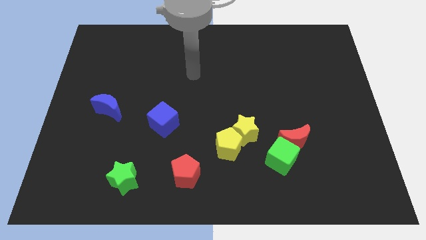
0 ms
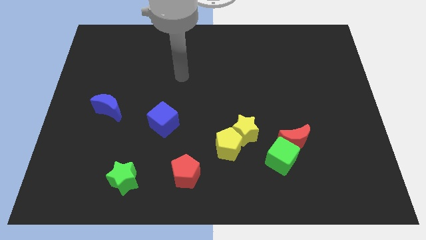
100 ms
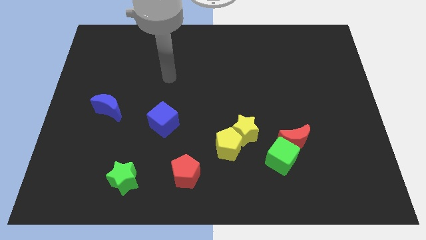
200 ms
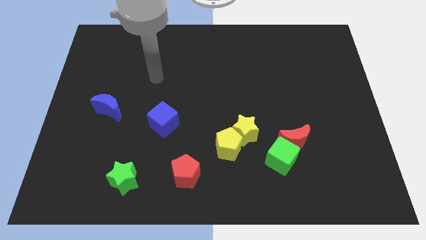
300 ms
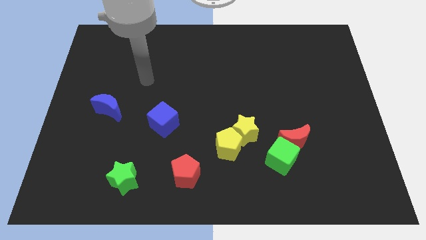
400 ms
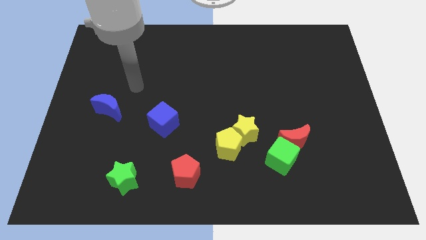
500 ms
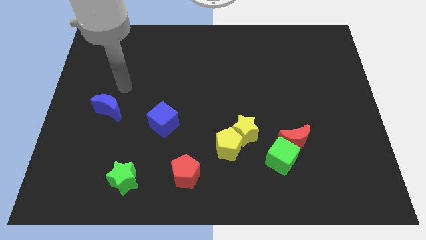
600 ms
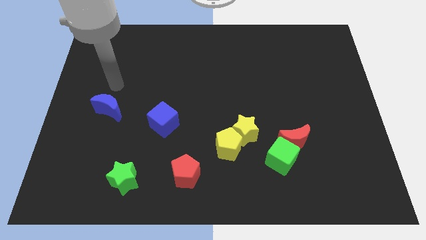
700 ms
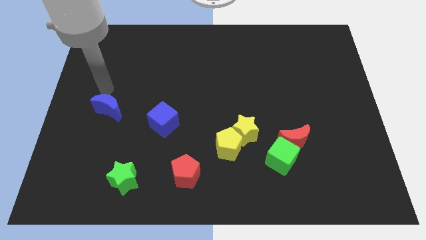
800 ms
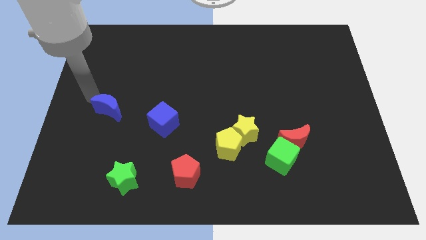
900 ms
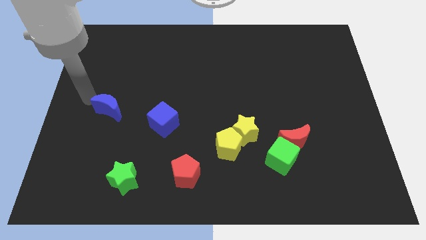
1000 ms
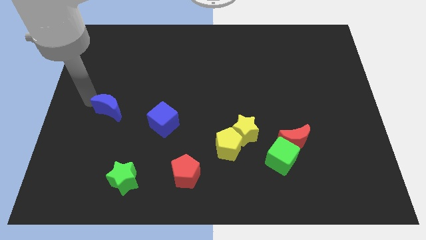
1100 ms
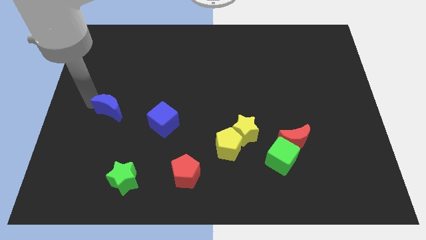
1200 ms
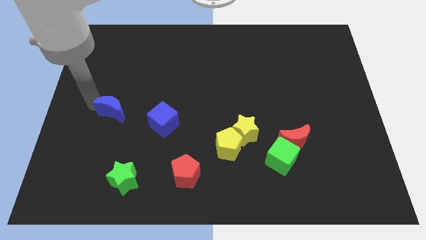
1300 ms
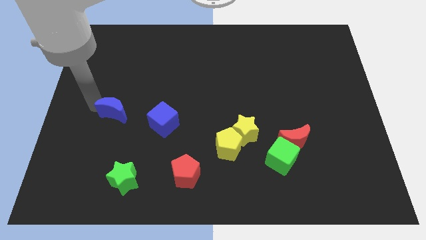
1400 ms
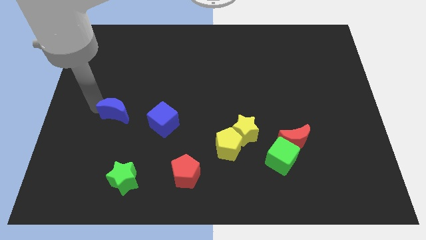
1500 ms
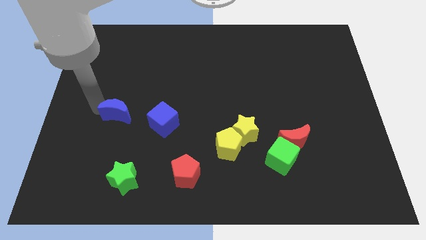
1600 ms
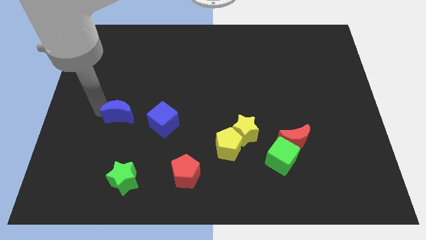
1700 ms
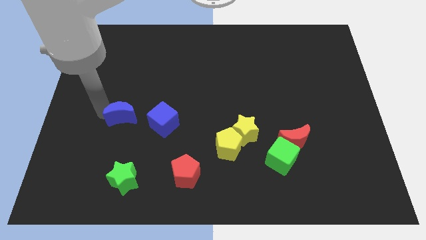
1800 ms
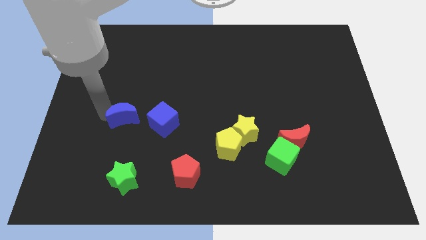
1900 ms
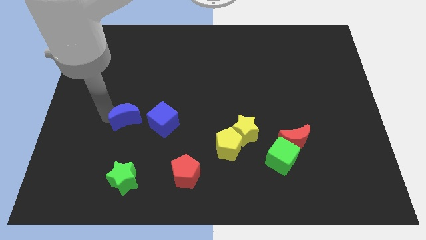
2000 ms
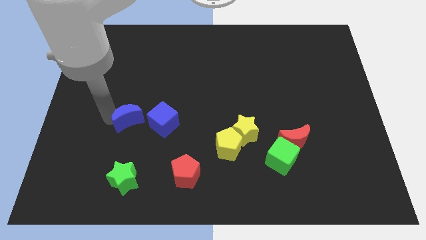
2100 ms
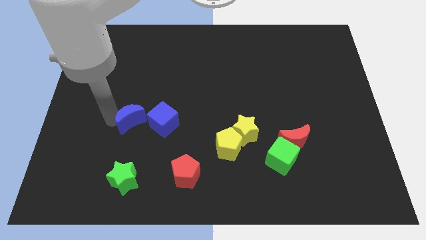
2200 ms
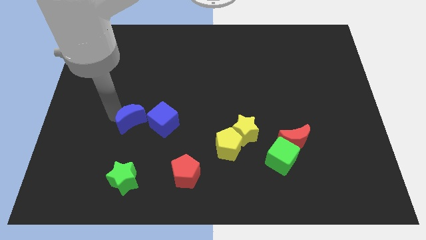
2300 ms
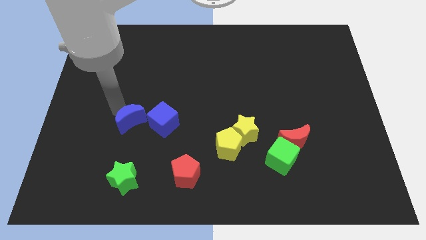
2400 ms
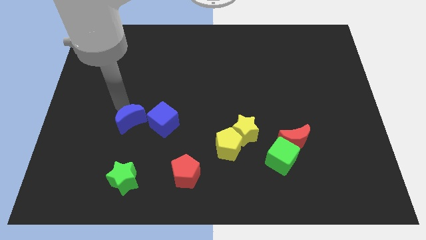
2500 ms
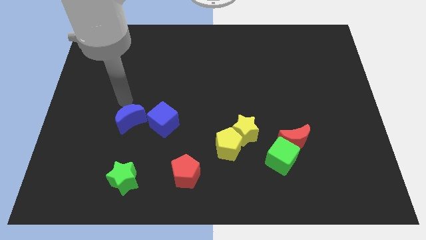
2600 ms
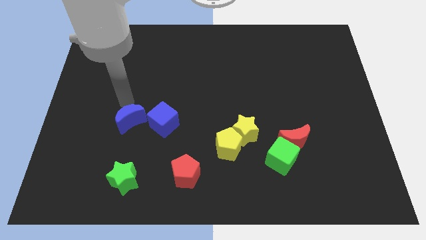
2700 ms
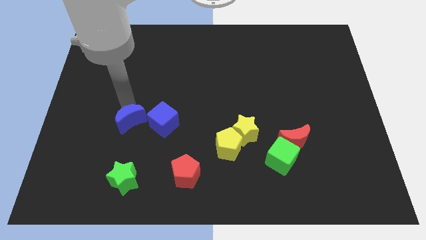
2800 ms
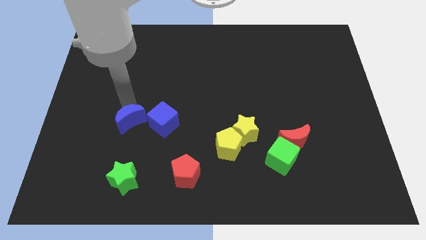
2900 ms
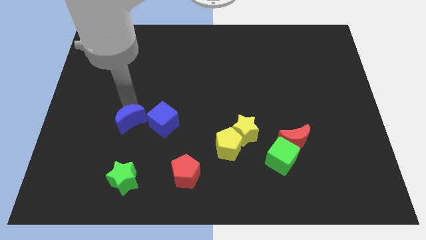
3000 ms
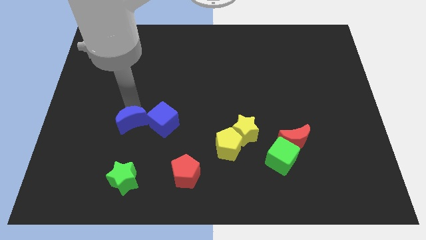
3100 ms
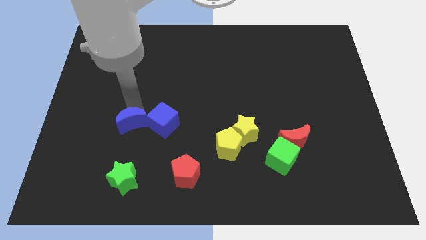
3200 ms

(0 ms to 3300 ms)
slide the blue moon downwards and then to the right slightly

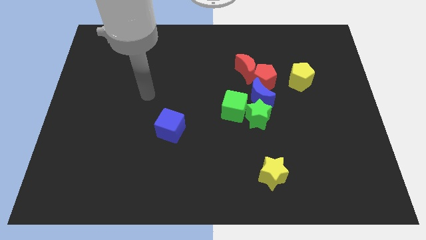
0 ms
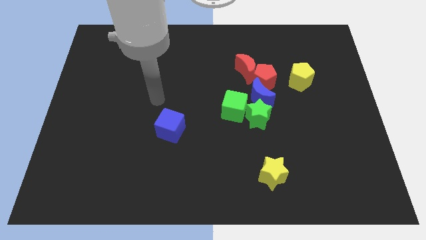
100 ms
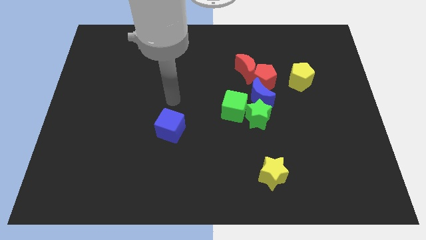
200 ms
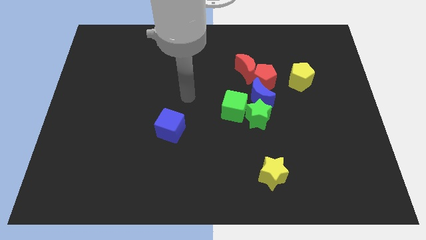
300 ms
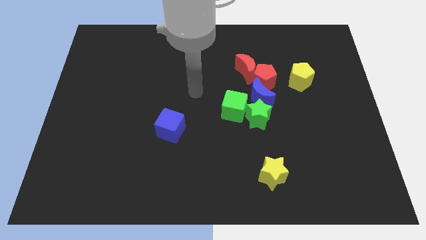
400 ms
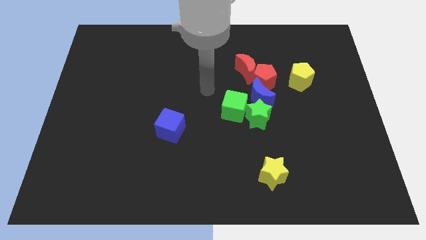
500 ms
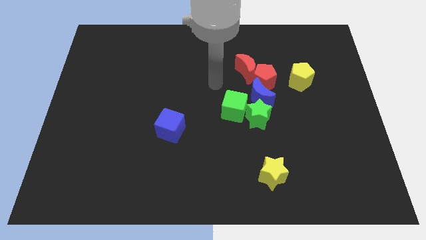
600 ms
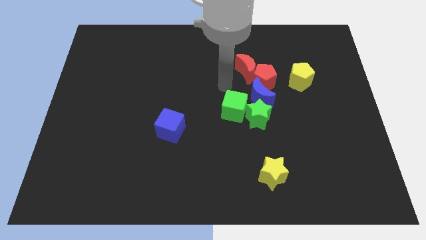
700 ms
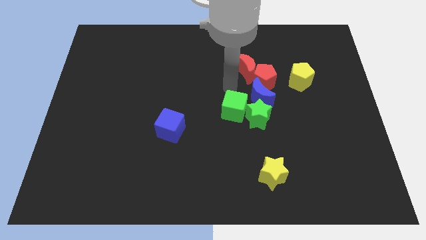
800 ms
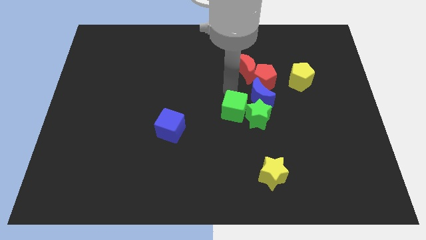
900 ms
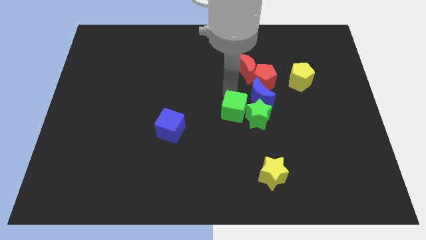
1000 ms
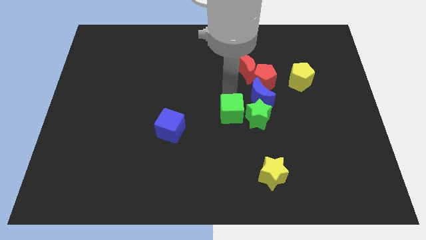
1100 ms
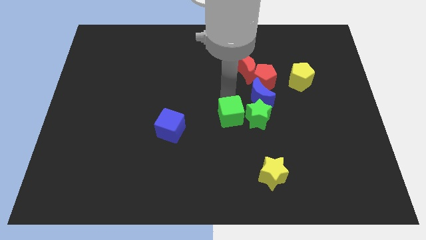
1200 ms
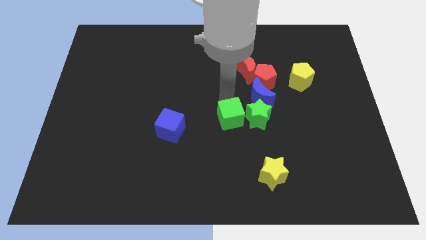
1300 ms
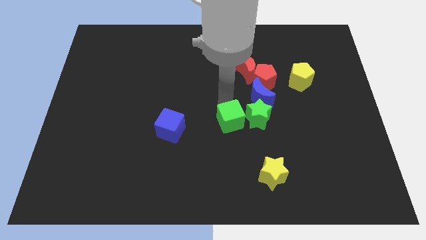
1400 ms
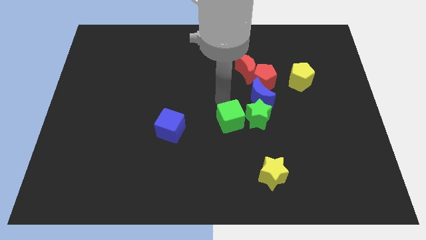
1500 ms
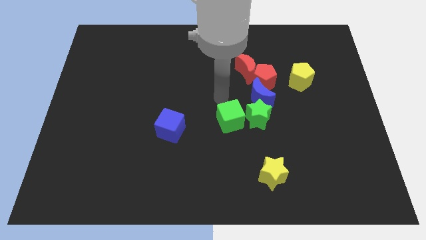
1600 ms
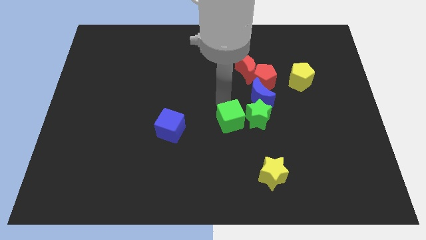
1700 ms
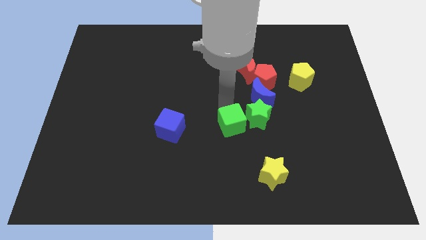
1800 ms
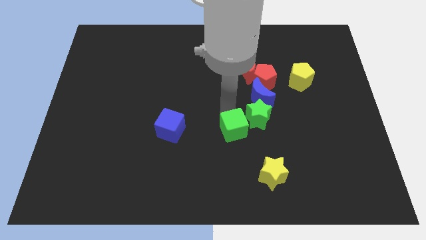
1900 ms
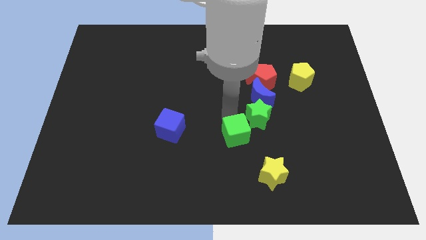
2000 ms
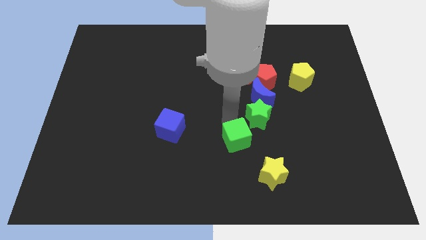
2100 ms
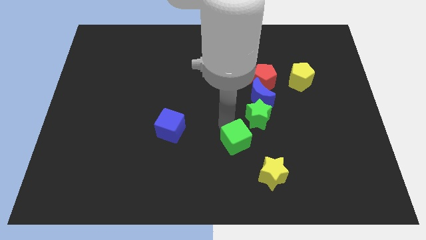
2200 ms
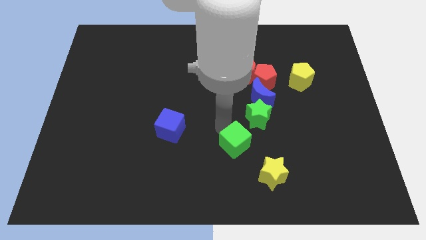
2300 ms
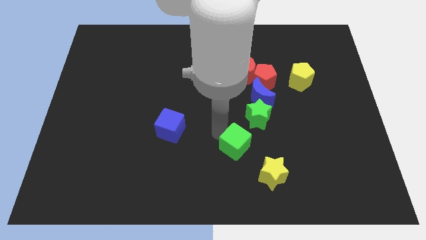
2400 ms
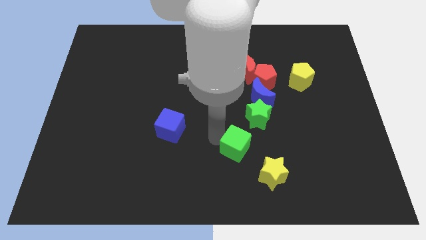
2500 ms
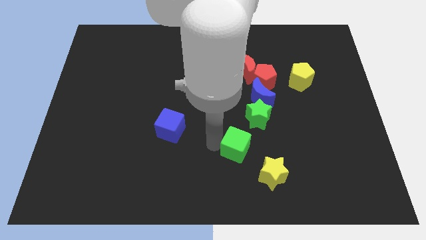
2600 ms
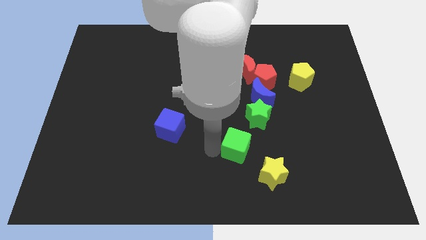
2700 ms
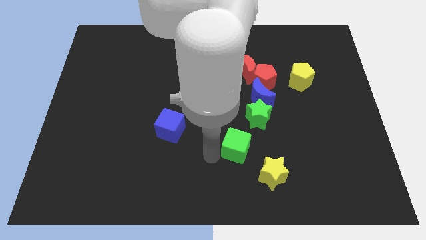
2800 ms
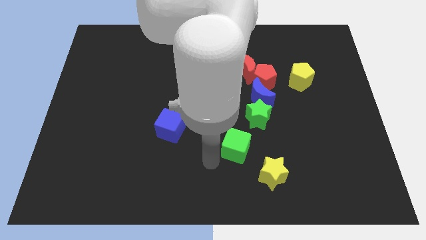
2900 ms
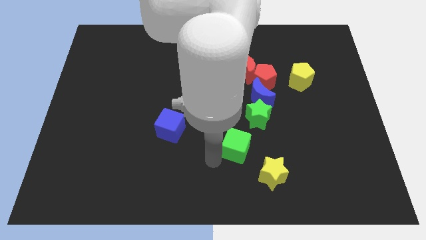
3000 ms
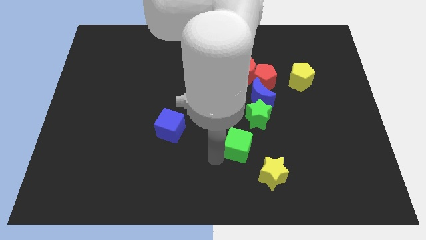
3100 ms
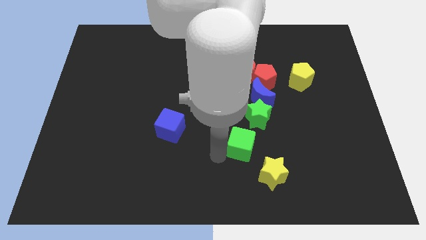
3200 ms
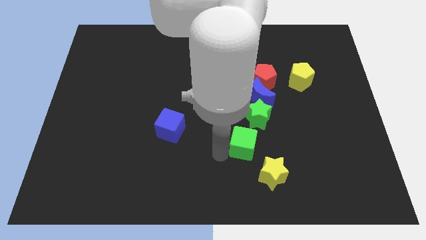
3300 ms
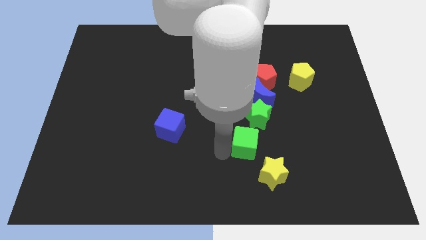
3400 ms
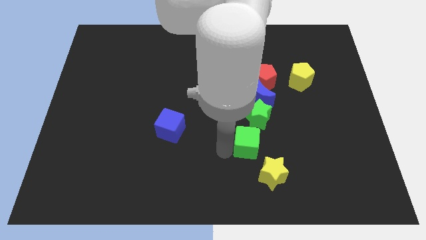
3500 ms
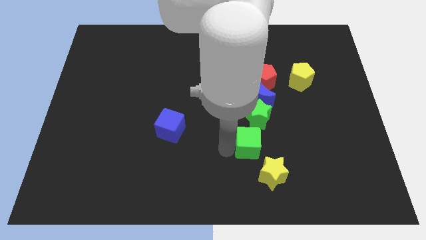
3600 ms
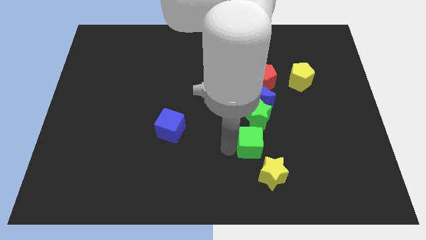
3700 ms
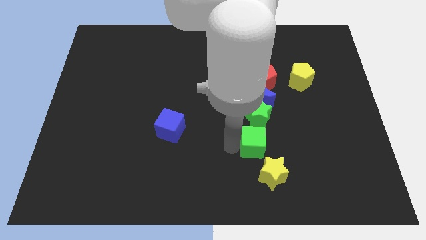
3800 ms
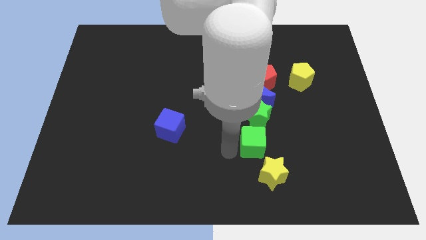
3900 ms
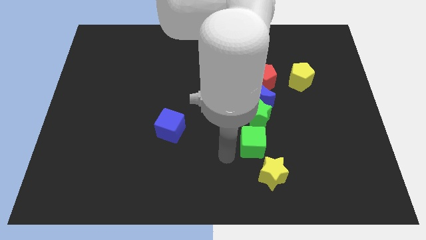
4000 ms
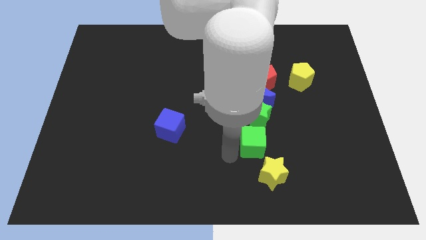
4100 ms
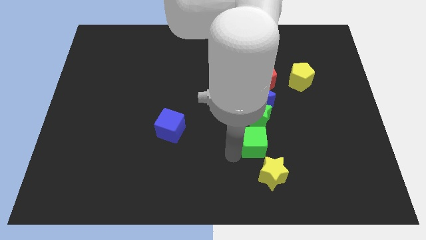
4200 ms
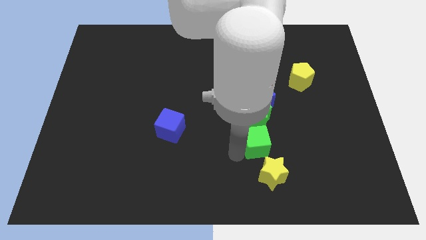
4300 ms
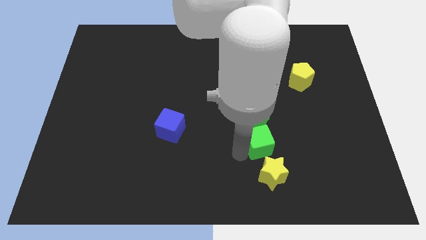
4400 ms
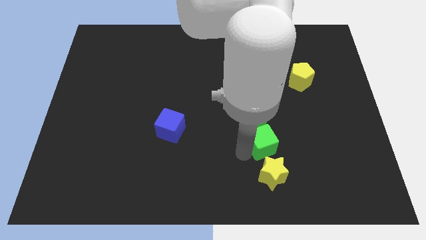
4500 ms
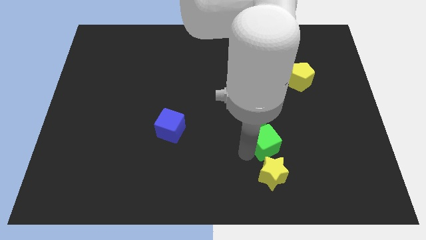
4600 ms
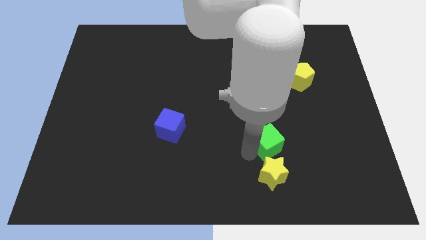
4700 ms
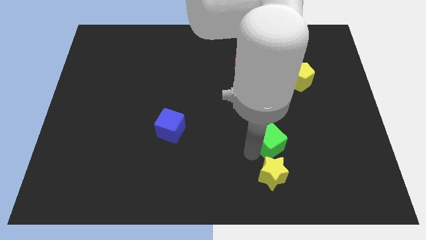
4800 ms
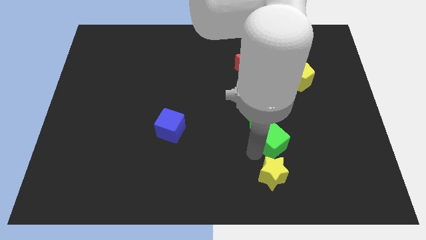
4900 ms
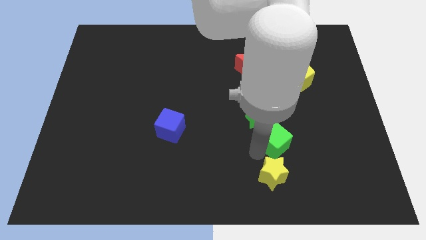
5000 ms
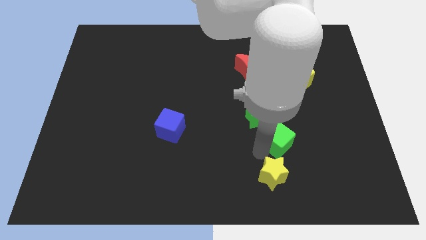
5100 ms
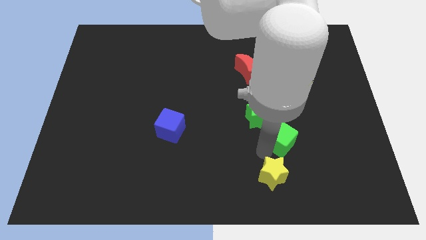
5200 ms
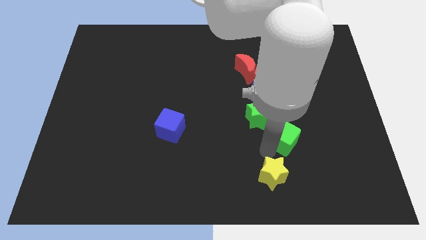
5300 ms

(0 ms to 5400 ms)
slide the green cube a little to the right
